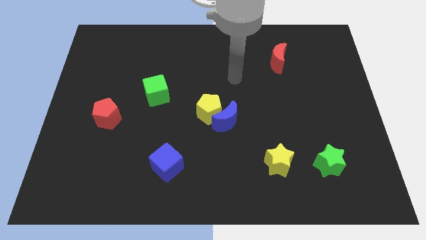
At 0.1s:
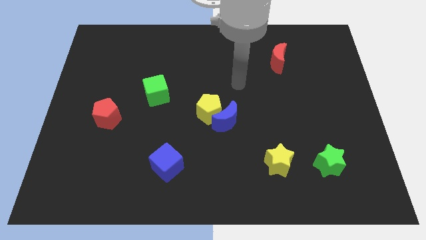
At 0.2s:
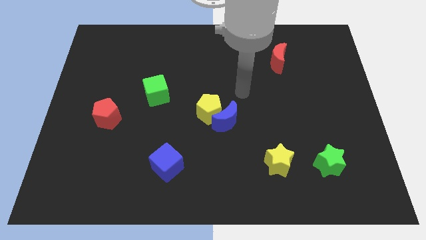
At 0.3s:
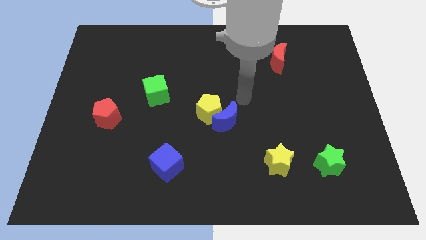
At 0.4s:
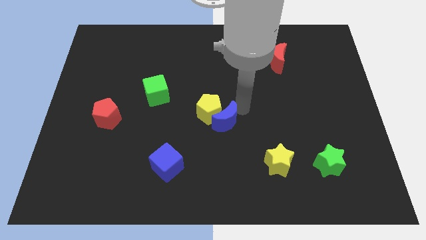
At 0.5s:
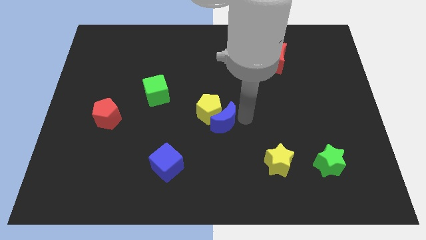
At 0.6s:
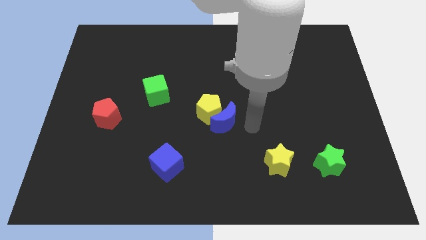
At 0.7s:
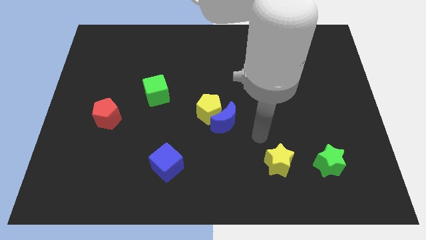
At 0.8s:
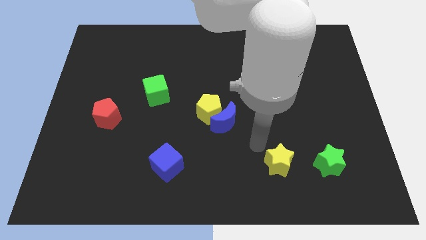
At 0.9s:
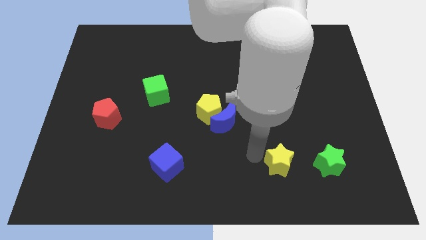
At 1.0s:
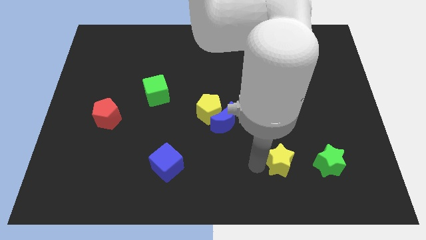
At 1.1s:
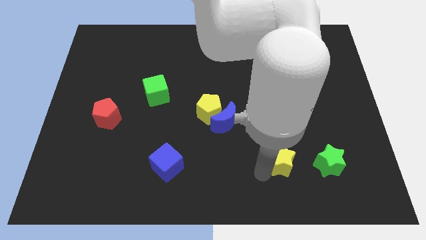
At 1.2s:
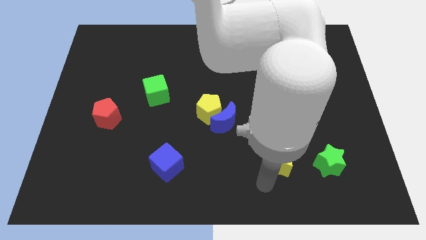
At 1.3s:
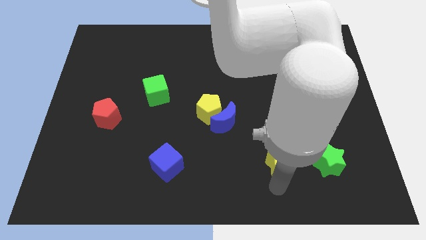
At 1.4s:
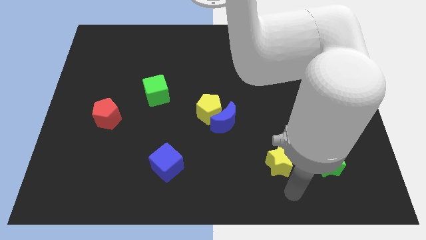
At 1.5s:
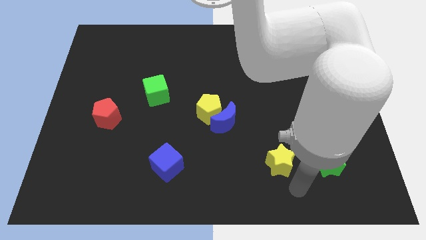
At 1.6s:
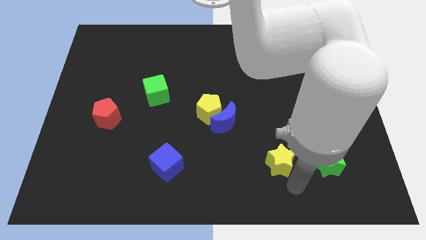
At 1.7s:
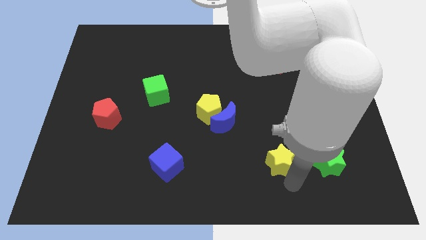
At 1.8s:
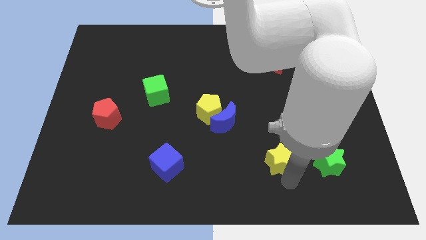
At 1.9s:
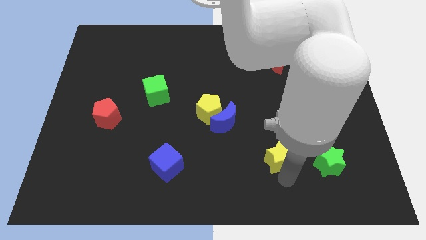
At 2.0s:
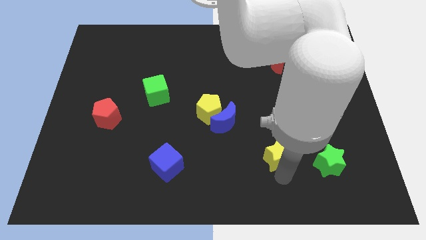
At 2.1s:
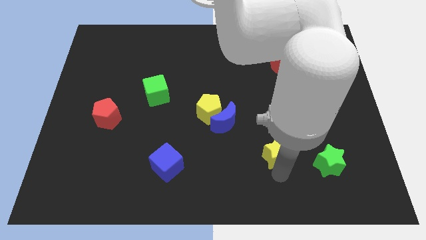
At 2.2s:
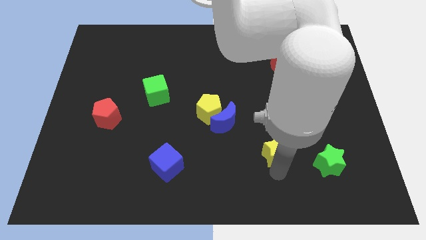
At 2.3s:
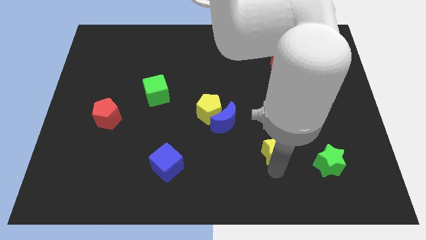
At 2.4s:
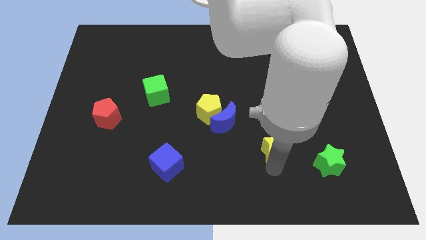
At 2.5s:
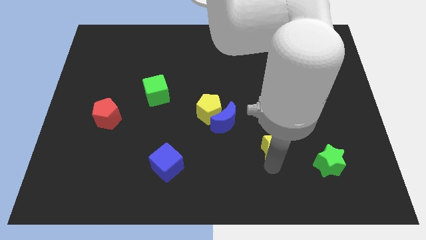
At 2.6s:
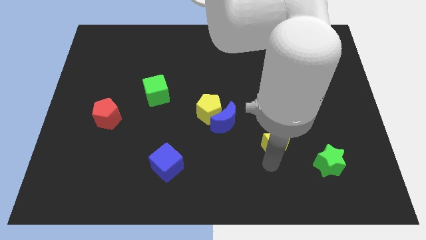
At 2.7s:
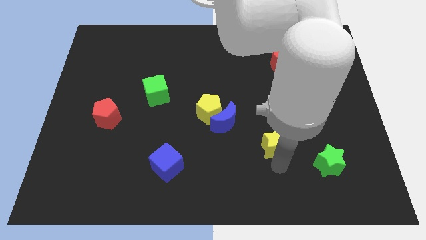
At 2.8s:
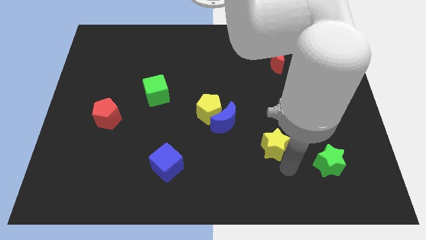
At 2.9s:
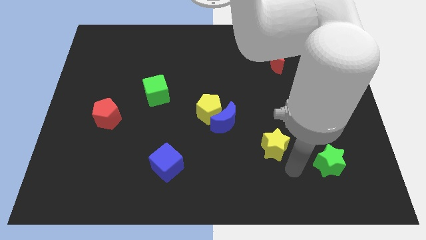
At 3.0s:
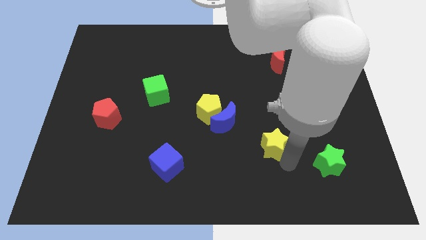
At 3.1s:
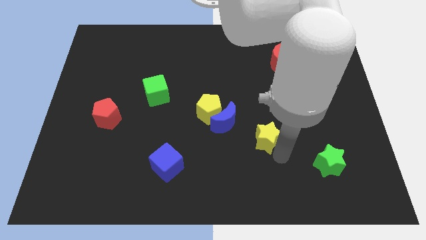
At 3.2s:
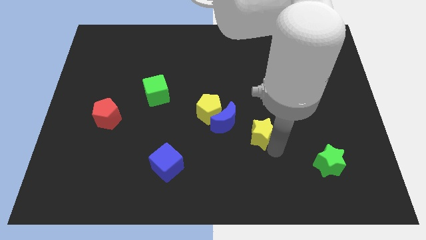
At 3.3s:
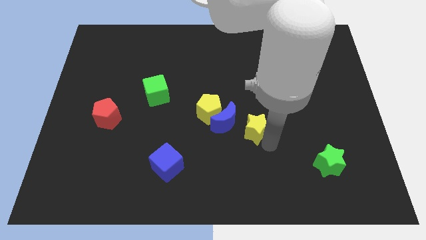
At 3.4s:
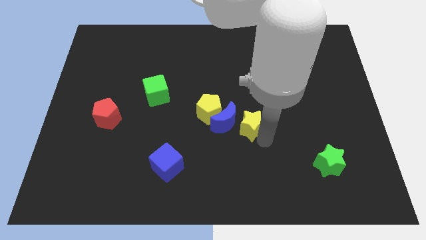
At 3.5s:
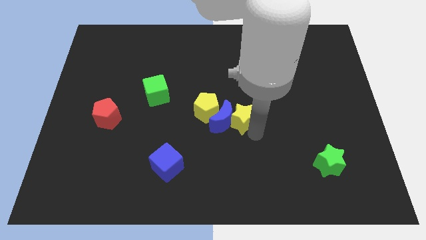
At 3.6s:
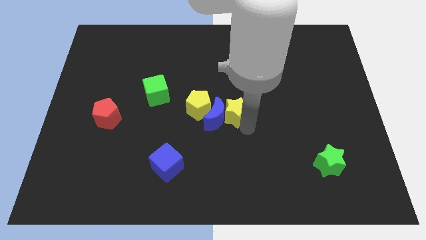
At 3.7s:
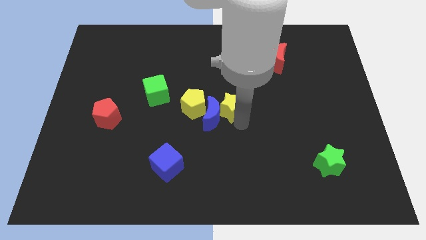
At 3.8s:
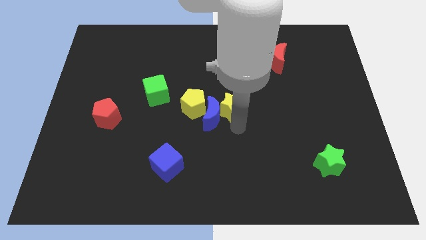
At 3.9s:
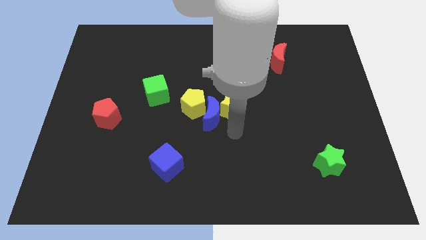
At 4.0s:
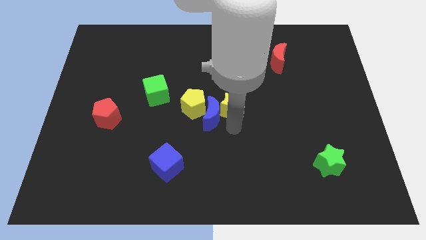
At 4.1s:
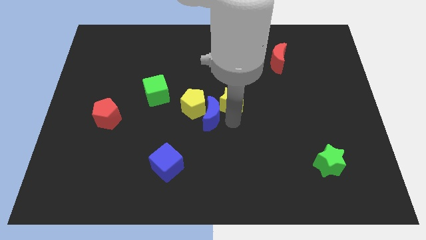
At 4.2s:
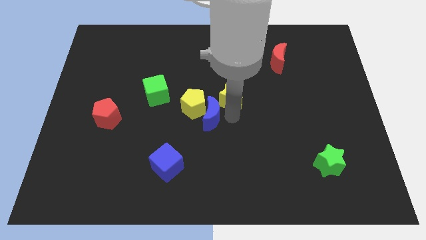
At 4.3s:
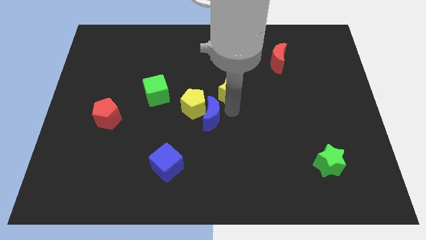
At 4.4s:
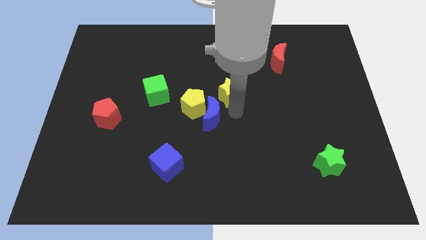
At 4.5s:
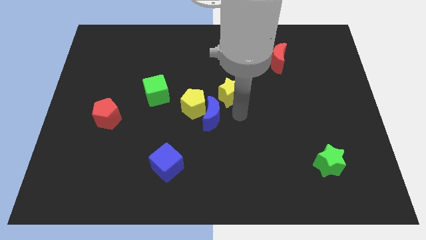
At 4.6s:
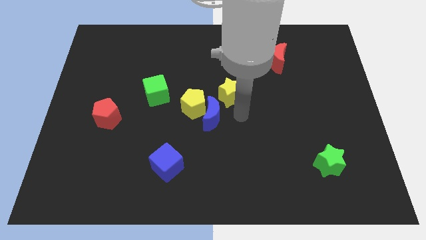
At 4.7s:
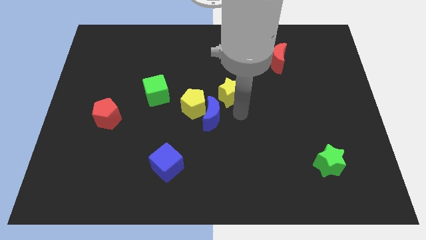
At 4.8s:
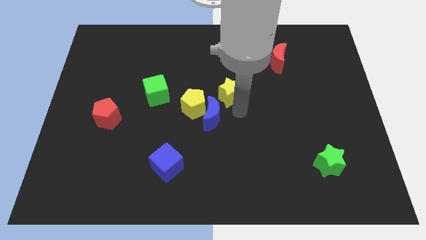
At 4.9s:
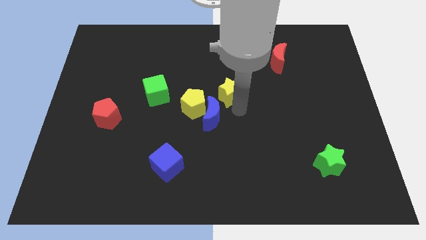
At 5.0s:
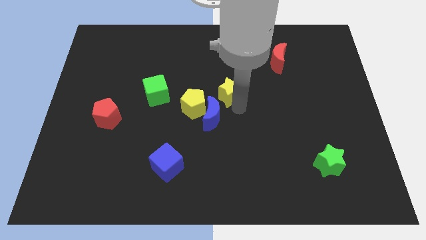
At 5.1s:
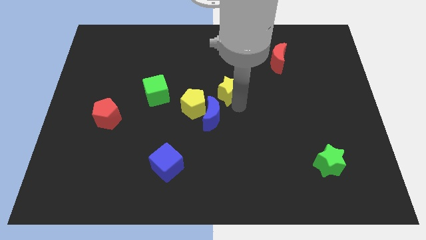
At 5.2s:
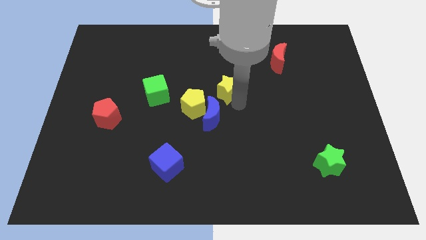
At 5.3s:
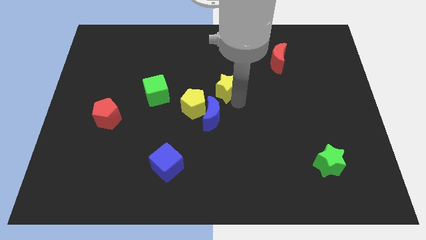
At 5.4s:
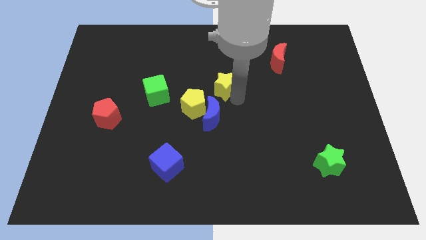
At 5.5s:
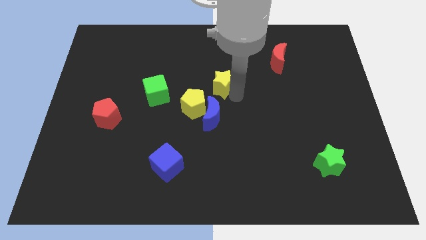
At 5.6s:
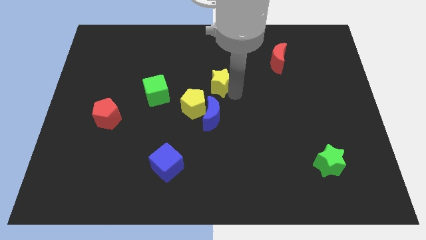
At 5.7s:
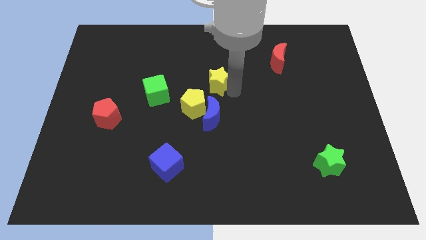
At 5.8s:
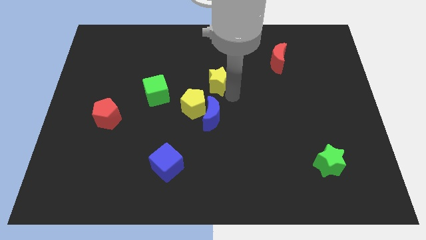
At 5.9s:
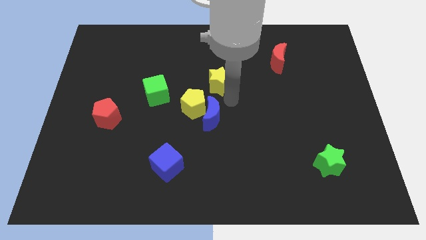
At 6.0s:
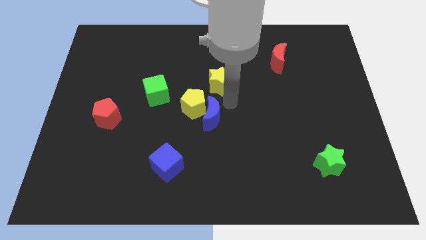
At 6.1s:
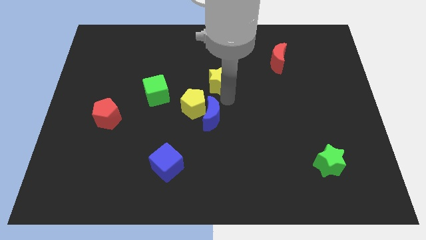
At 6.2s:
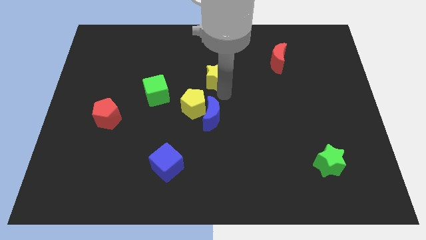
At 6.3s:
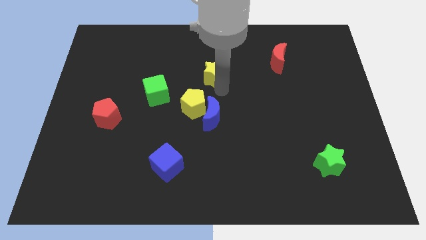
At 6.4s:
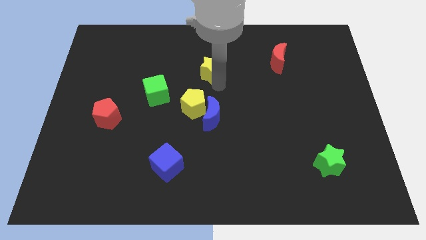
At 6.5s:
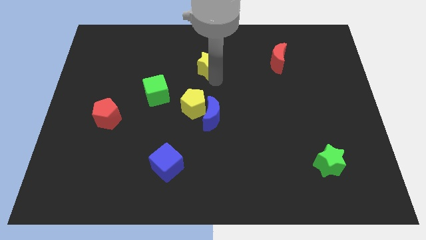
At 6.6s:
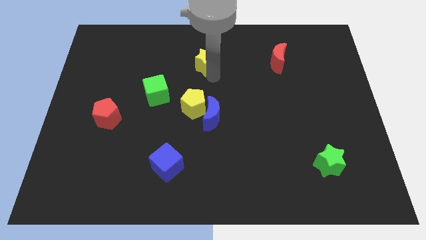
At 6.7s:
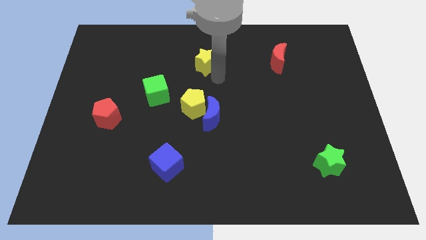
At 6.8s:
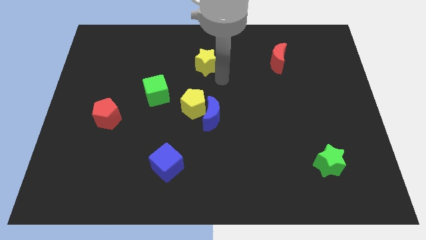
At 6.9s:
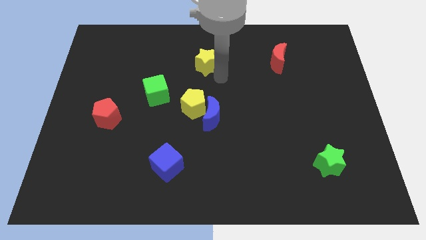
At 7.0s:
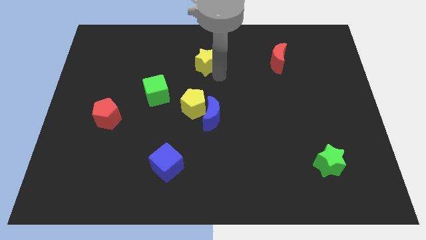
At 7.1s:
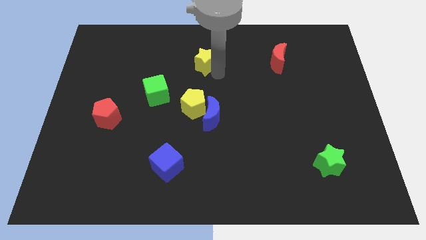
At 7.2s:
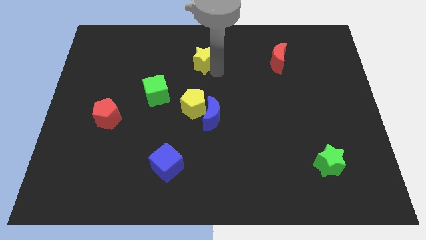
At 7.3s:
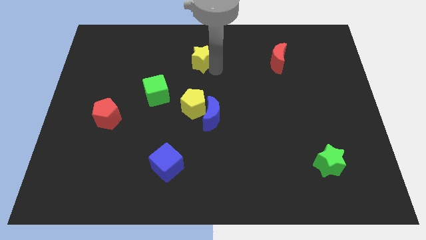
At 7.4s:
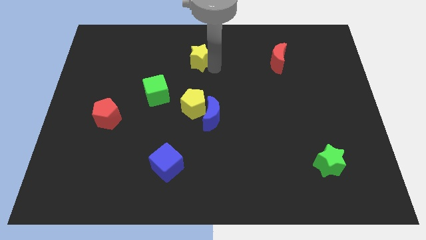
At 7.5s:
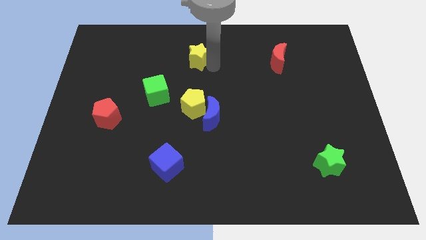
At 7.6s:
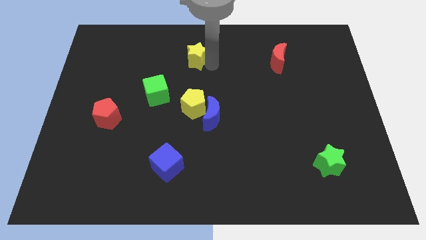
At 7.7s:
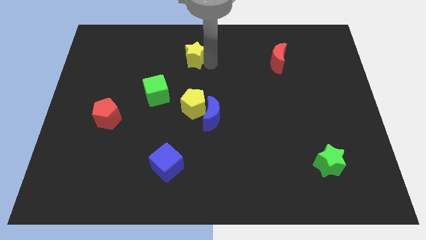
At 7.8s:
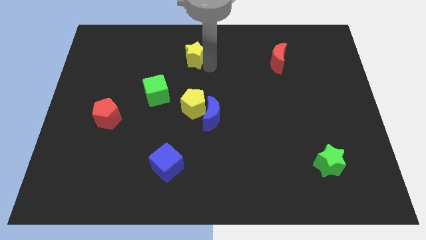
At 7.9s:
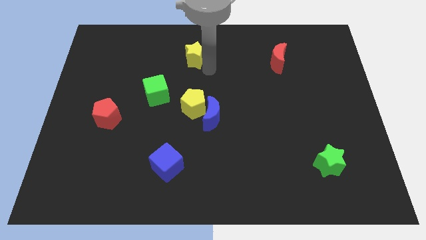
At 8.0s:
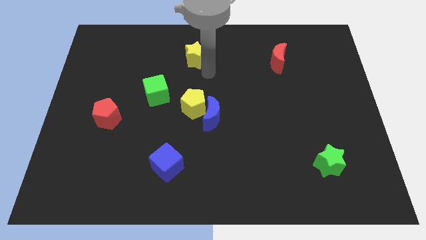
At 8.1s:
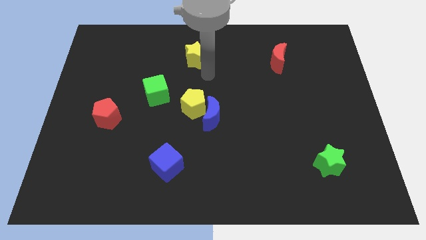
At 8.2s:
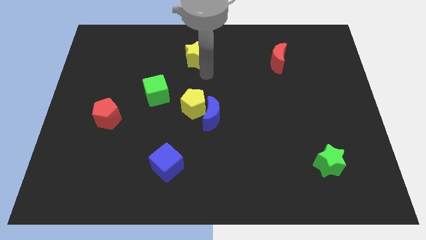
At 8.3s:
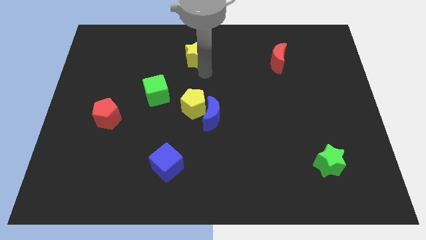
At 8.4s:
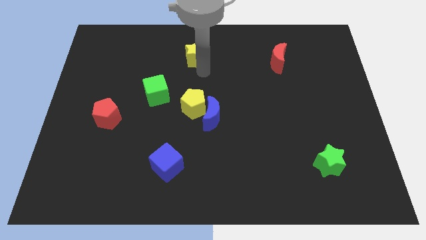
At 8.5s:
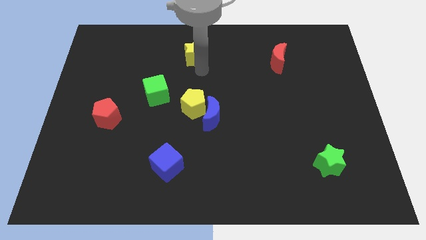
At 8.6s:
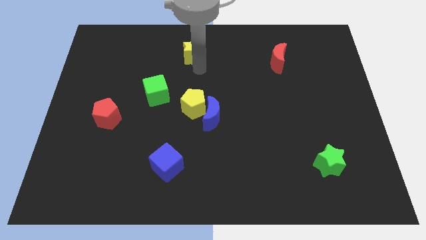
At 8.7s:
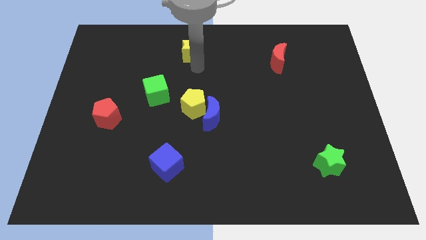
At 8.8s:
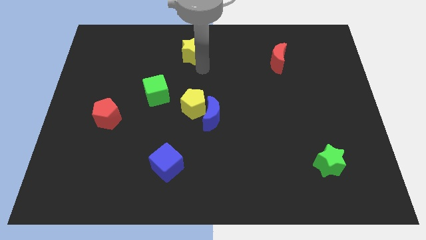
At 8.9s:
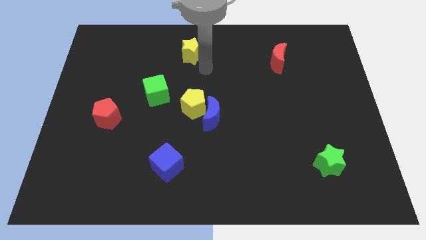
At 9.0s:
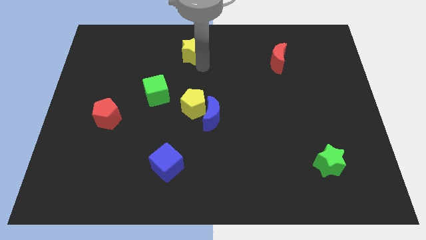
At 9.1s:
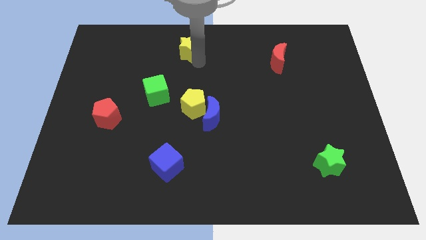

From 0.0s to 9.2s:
slide the yellow star to the towards your base
